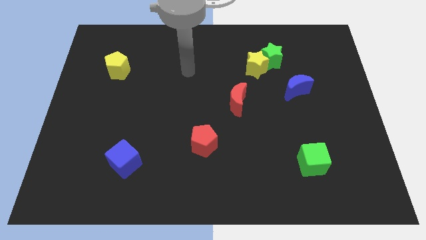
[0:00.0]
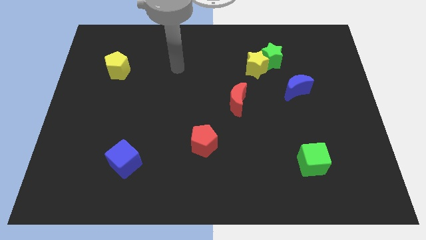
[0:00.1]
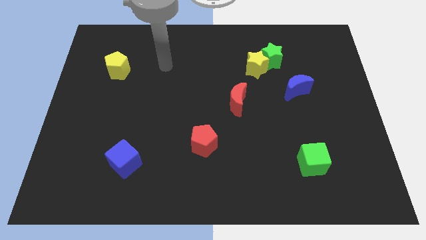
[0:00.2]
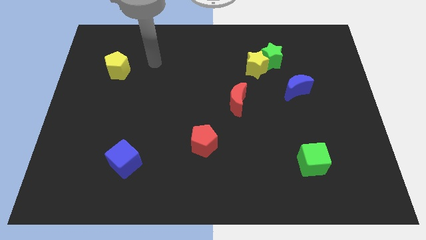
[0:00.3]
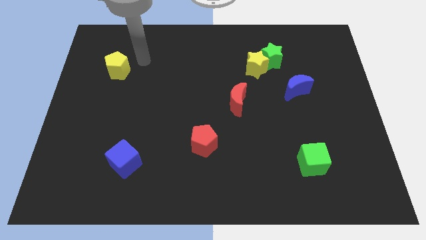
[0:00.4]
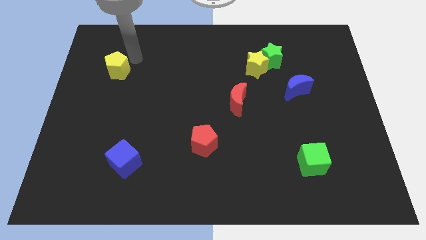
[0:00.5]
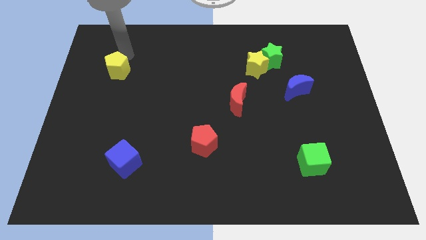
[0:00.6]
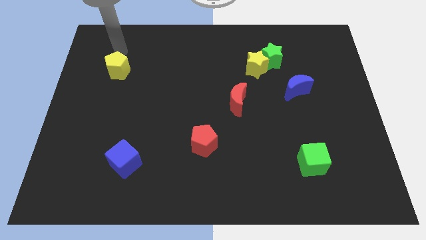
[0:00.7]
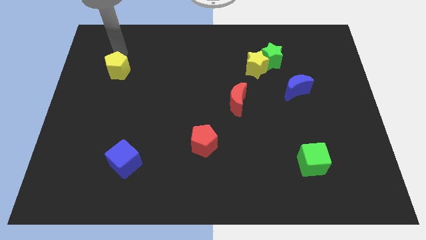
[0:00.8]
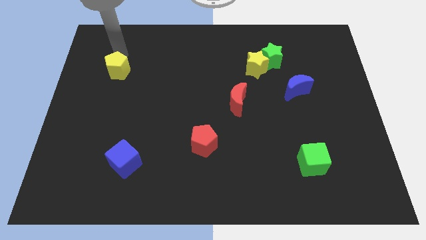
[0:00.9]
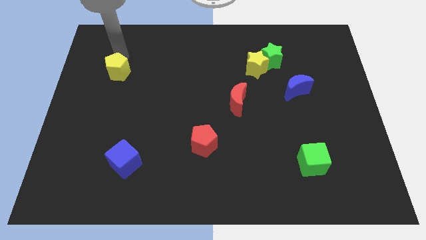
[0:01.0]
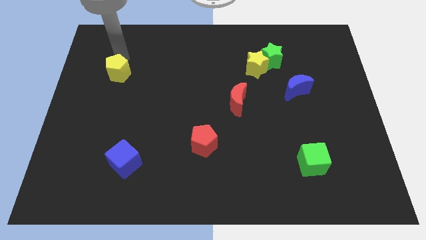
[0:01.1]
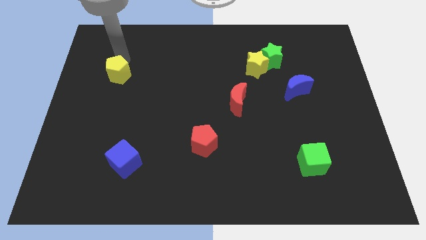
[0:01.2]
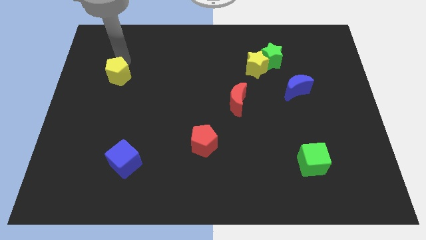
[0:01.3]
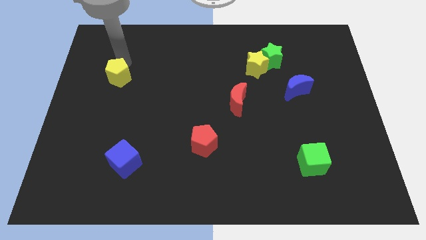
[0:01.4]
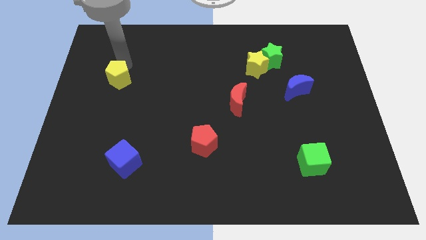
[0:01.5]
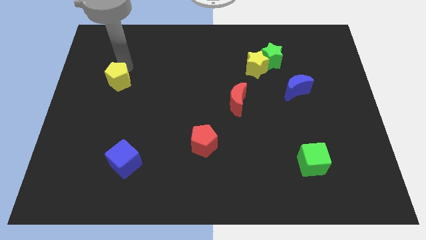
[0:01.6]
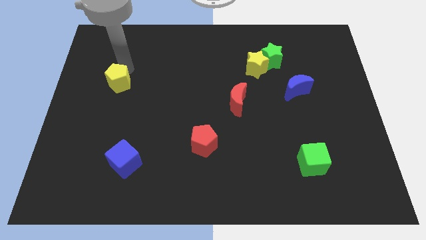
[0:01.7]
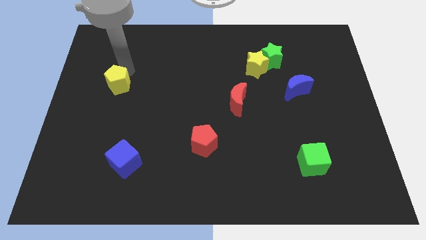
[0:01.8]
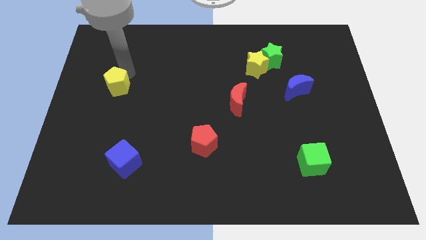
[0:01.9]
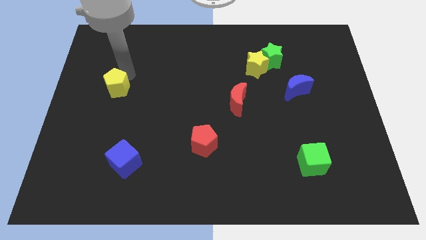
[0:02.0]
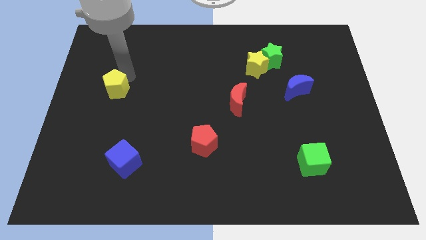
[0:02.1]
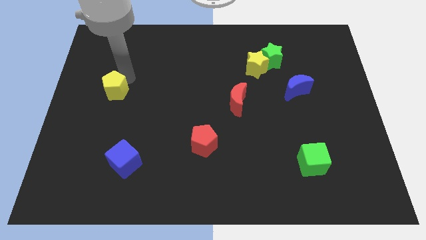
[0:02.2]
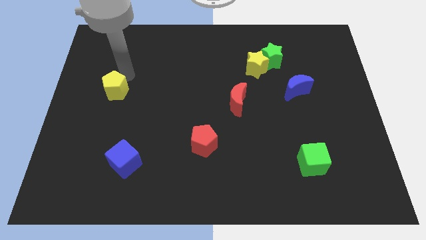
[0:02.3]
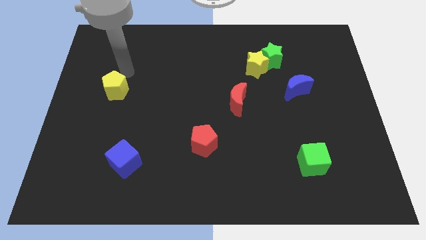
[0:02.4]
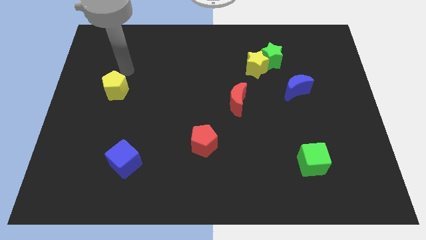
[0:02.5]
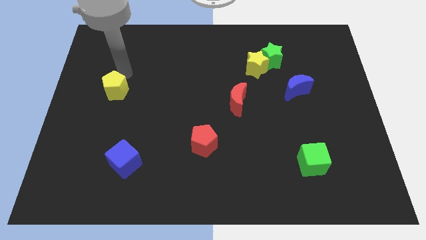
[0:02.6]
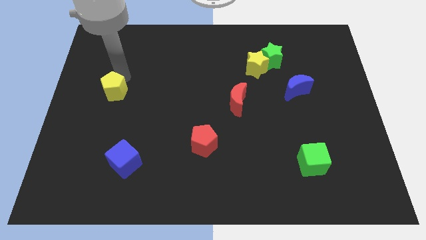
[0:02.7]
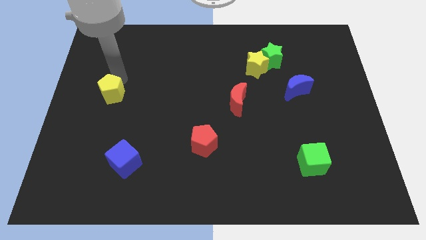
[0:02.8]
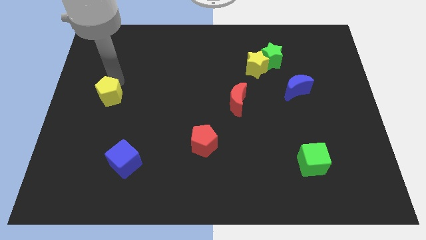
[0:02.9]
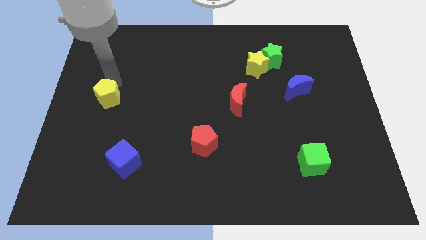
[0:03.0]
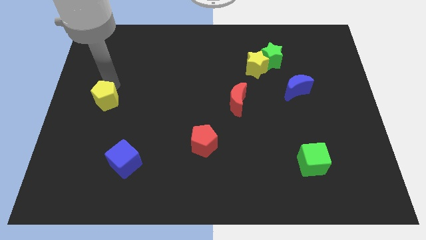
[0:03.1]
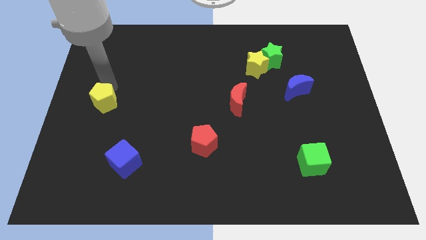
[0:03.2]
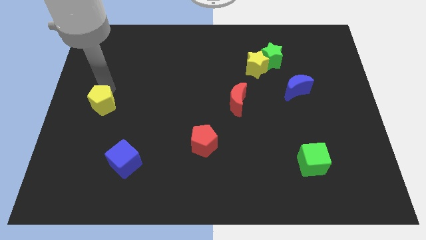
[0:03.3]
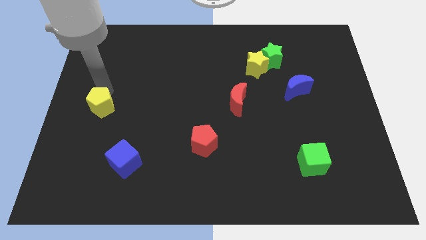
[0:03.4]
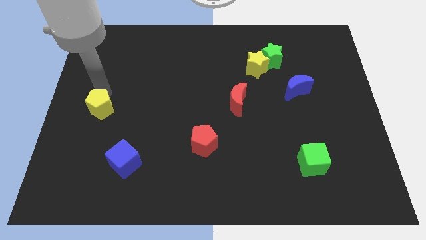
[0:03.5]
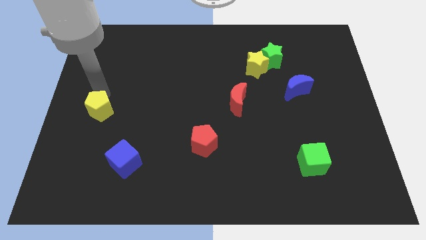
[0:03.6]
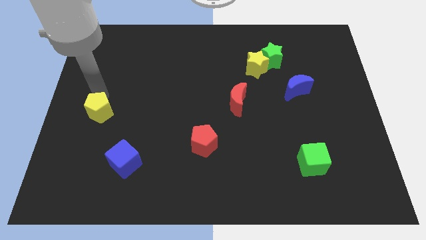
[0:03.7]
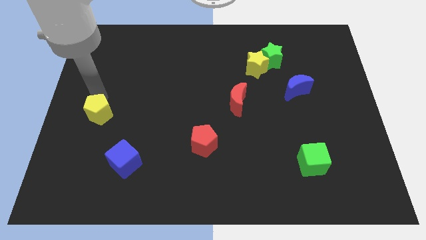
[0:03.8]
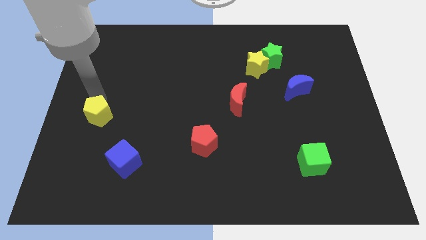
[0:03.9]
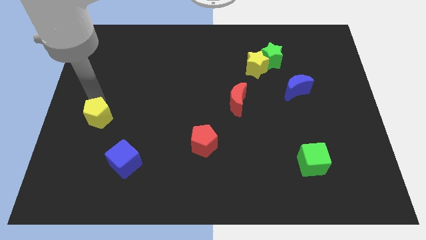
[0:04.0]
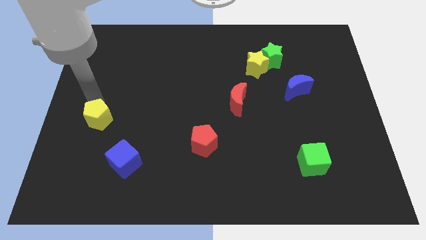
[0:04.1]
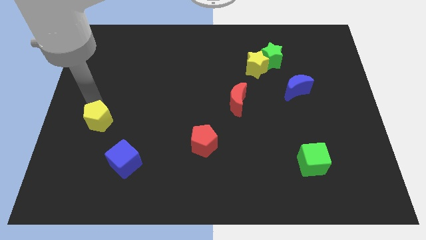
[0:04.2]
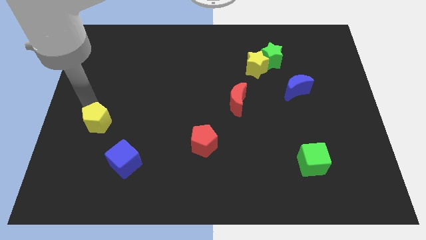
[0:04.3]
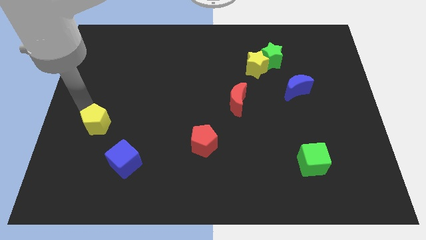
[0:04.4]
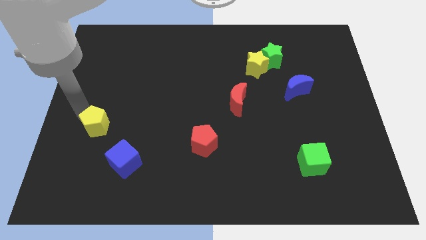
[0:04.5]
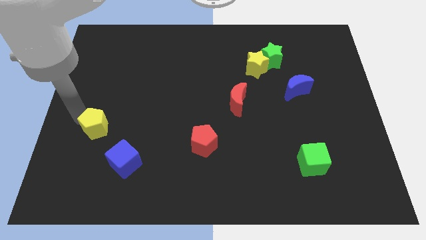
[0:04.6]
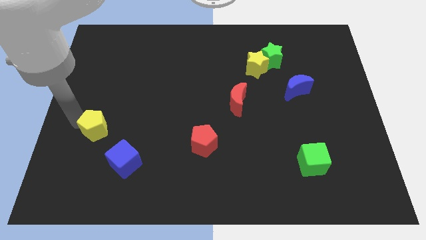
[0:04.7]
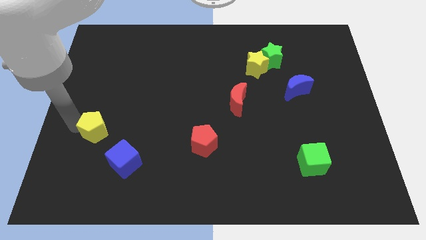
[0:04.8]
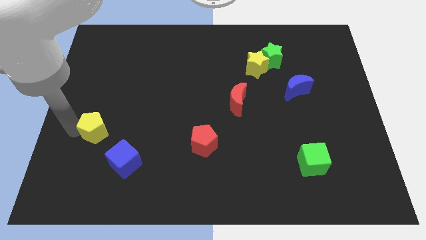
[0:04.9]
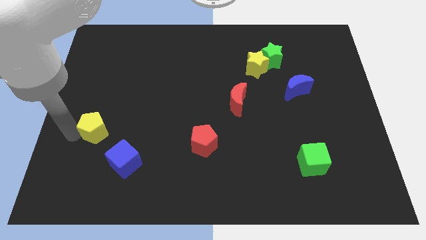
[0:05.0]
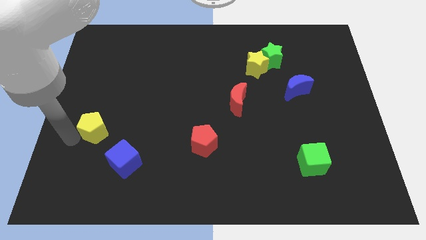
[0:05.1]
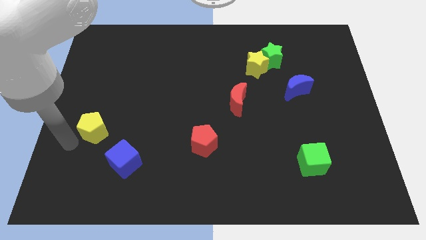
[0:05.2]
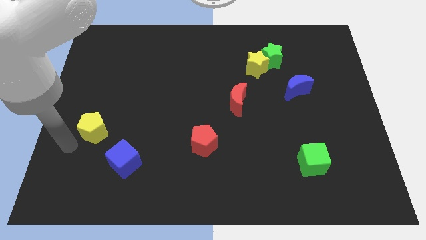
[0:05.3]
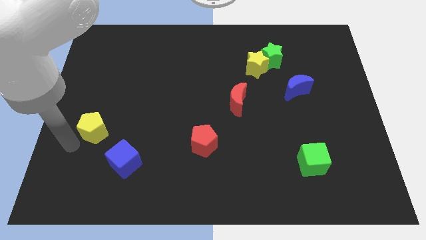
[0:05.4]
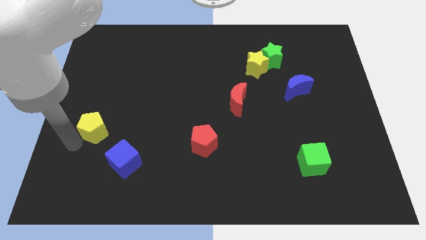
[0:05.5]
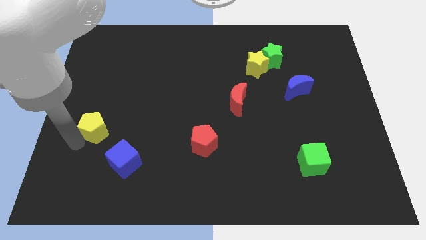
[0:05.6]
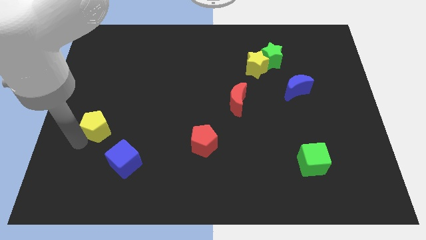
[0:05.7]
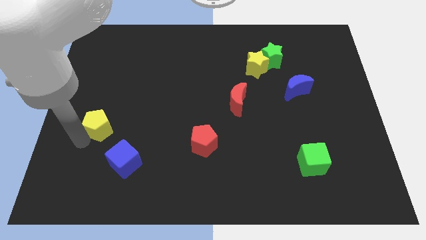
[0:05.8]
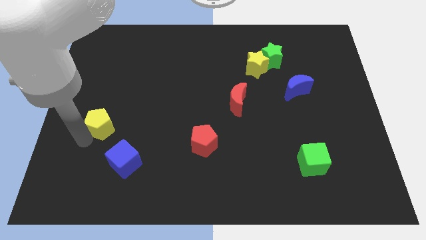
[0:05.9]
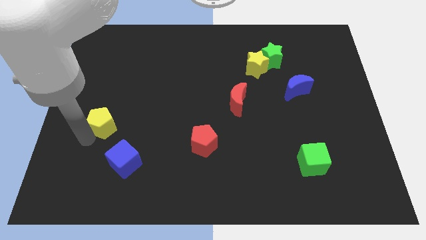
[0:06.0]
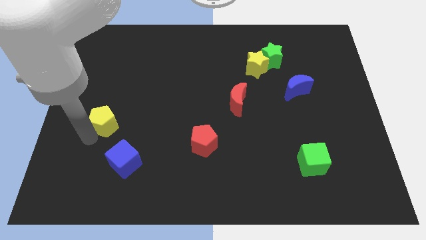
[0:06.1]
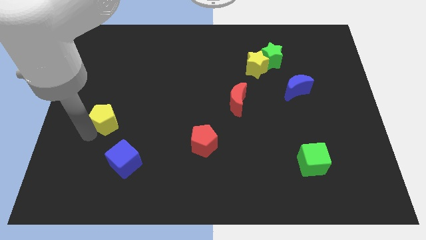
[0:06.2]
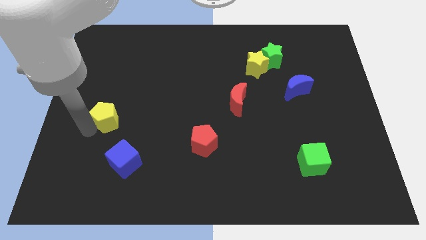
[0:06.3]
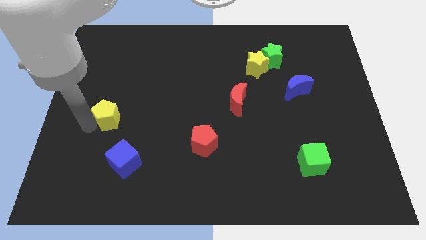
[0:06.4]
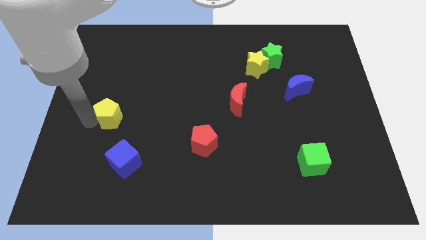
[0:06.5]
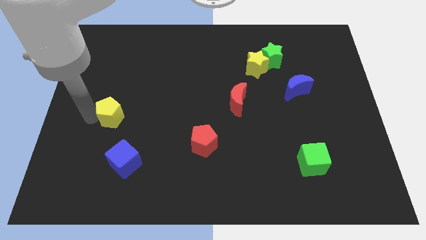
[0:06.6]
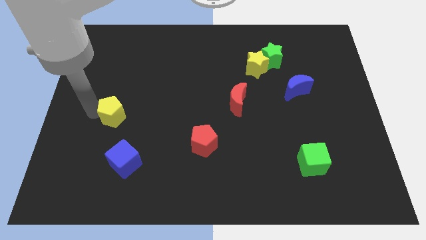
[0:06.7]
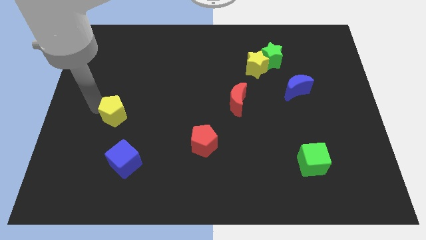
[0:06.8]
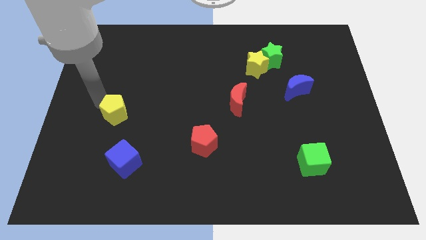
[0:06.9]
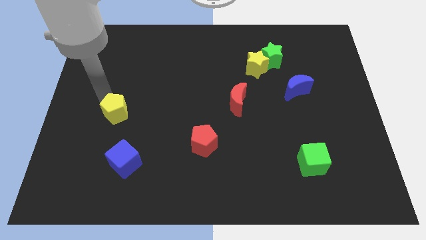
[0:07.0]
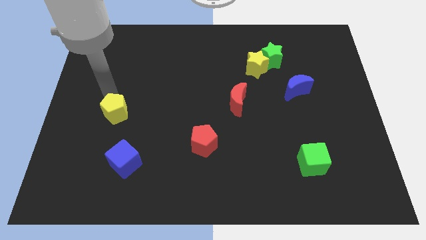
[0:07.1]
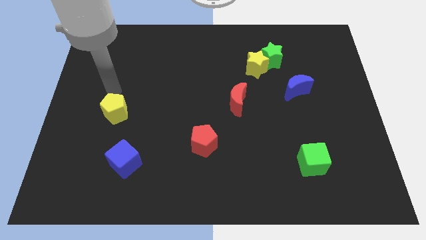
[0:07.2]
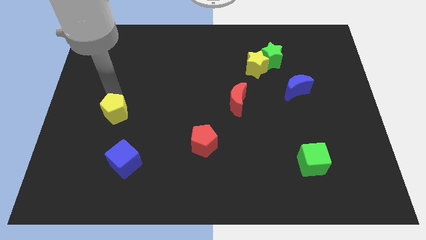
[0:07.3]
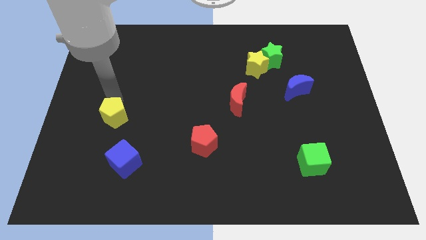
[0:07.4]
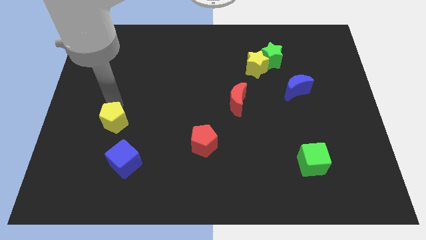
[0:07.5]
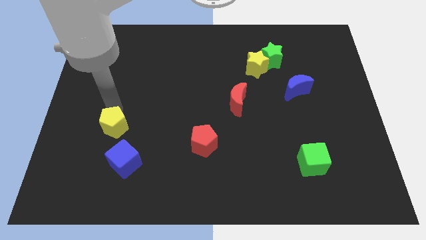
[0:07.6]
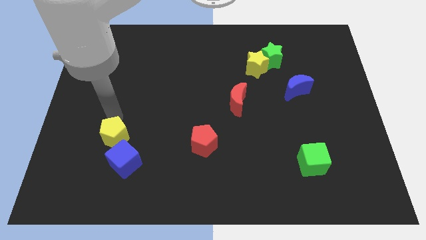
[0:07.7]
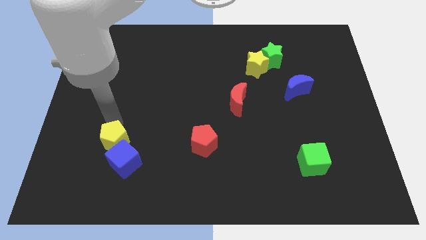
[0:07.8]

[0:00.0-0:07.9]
push the yellow pentagon towards the blue cube

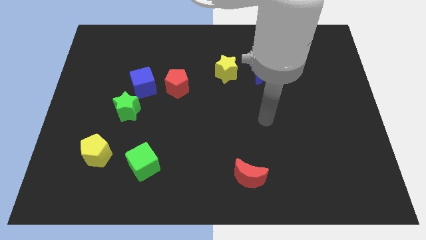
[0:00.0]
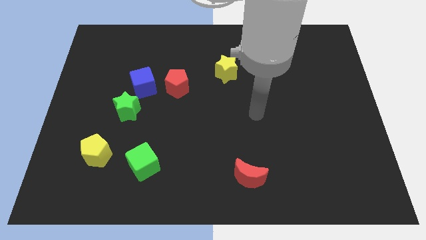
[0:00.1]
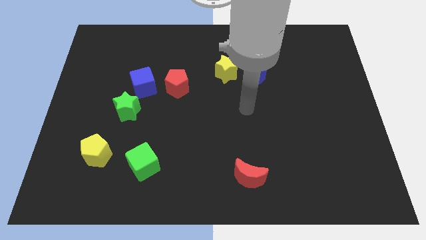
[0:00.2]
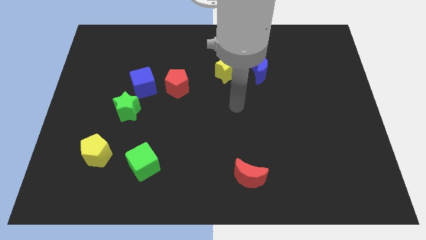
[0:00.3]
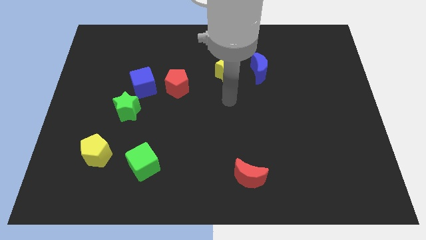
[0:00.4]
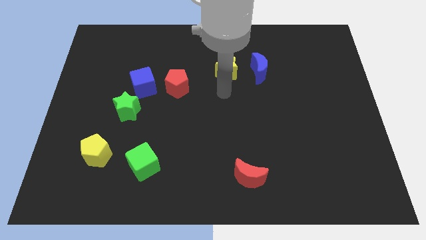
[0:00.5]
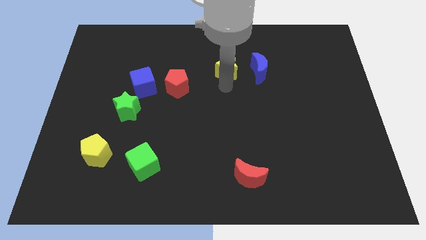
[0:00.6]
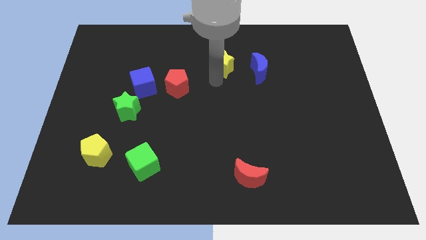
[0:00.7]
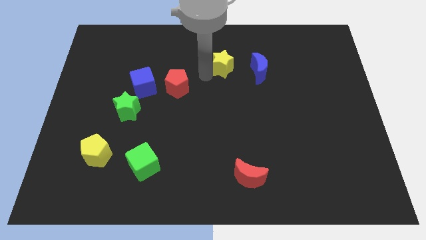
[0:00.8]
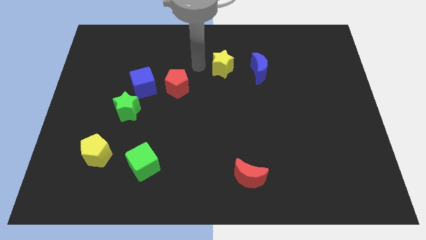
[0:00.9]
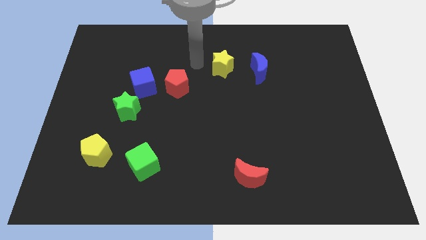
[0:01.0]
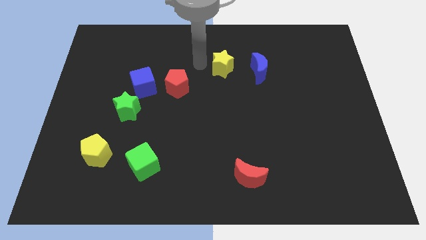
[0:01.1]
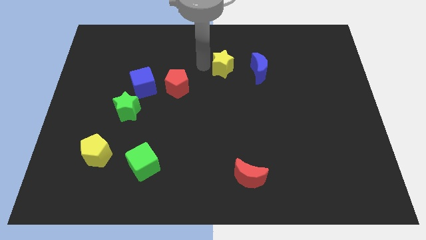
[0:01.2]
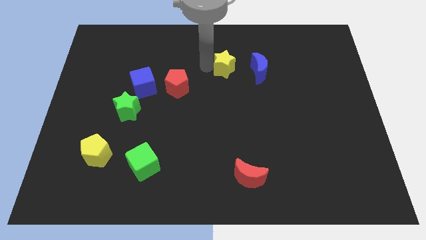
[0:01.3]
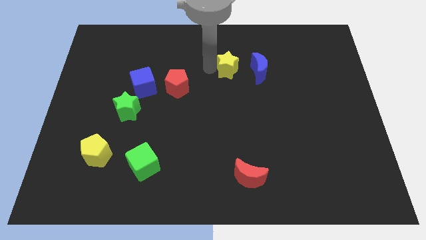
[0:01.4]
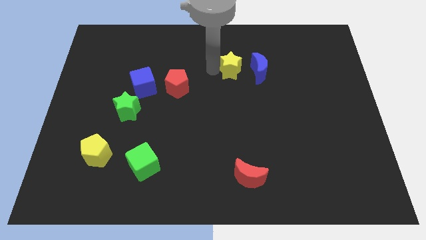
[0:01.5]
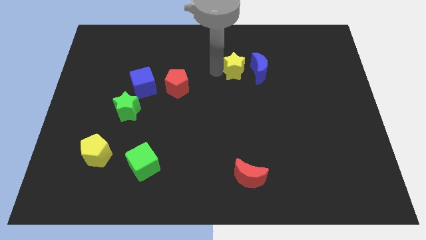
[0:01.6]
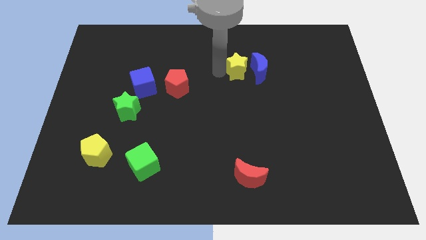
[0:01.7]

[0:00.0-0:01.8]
slide the yellow star next to the blue moon
